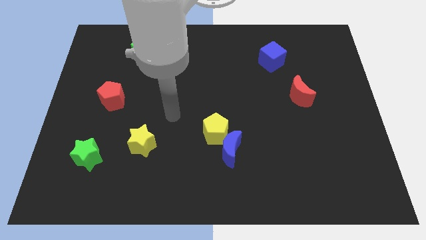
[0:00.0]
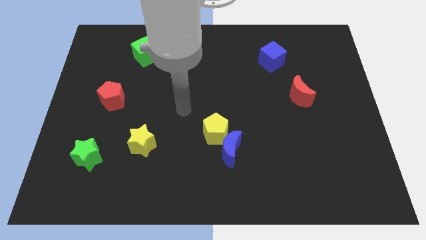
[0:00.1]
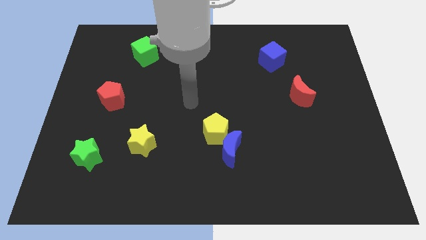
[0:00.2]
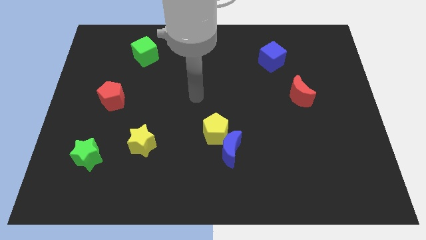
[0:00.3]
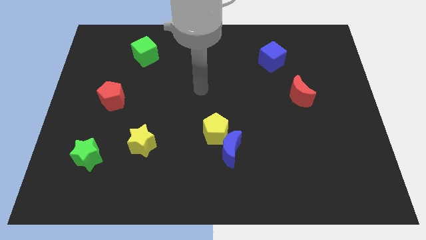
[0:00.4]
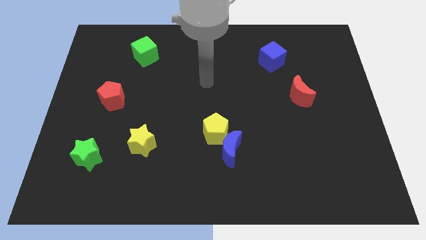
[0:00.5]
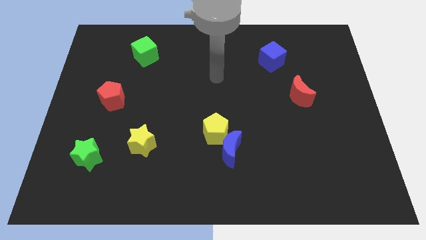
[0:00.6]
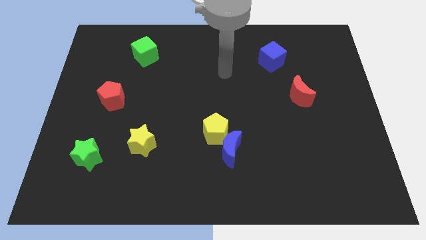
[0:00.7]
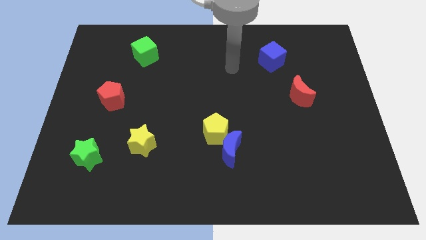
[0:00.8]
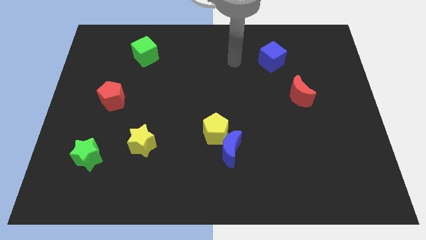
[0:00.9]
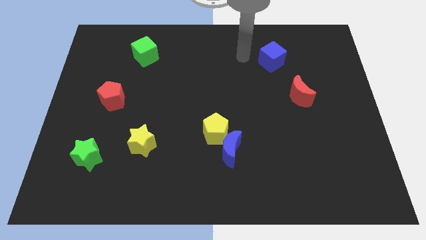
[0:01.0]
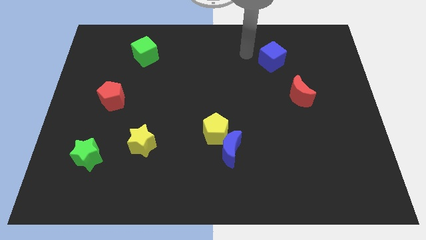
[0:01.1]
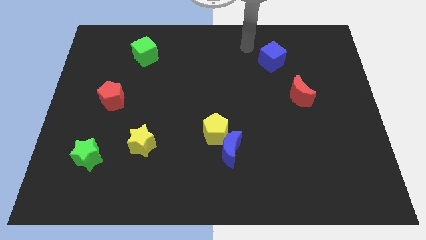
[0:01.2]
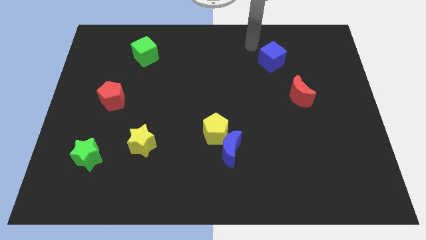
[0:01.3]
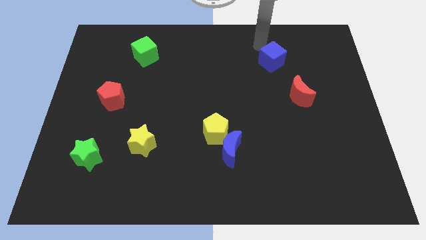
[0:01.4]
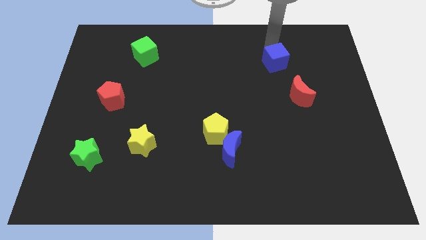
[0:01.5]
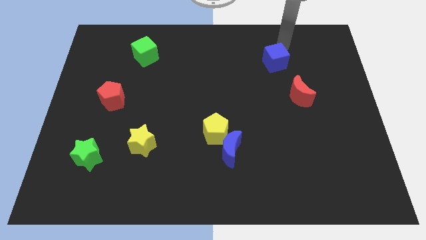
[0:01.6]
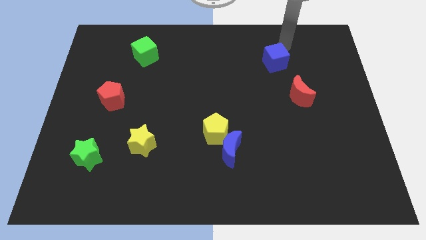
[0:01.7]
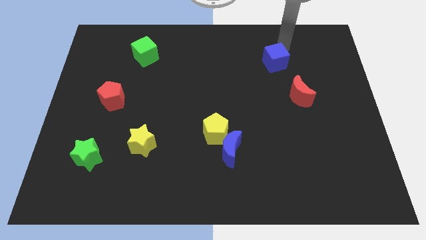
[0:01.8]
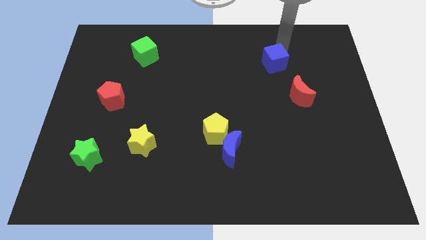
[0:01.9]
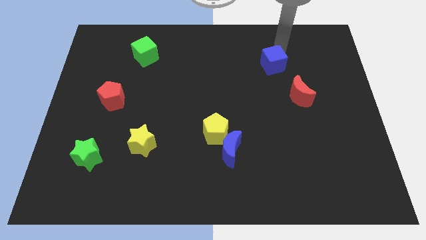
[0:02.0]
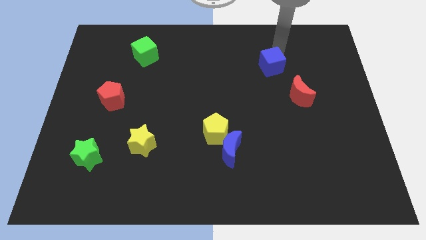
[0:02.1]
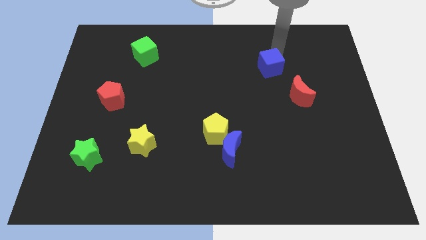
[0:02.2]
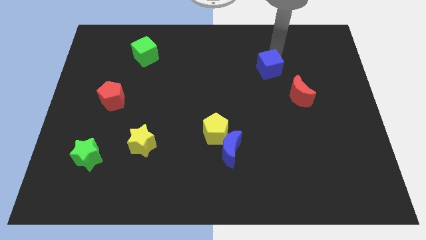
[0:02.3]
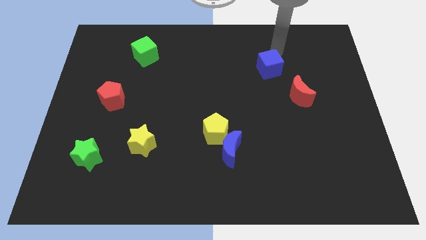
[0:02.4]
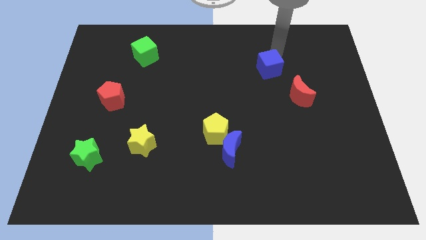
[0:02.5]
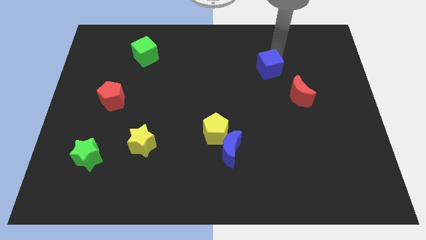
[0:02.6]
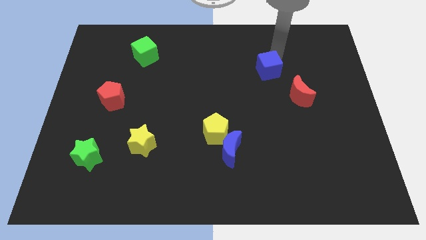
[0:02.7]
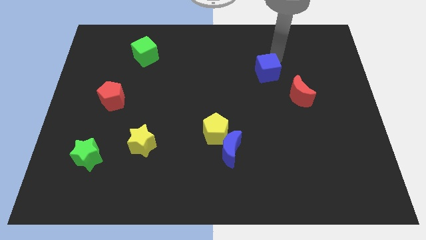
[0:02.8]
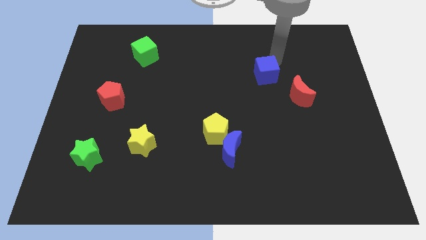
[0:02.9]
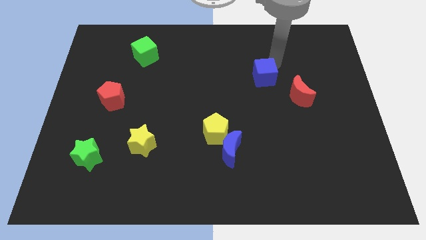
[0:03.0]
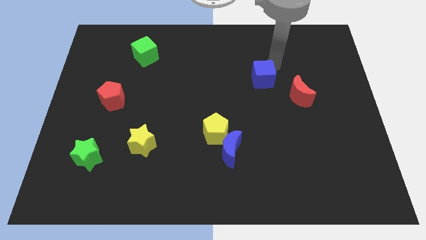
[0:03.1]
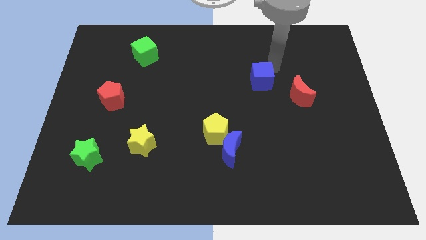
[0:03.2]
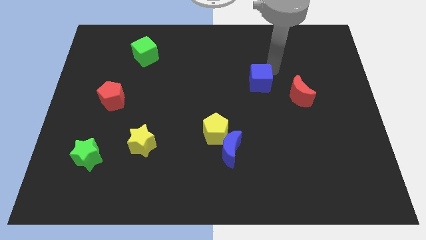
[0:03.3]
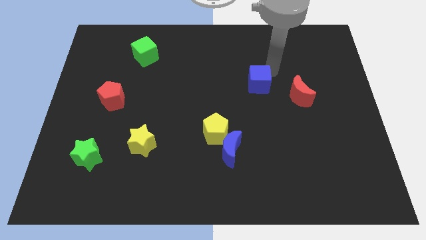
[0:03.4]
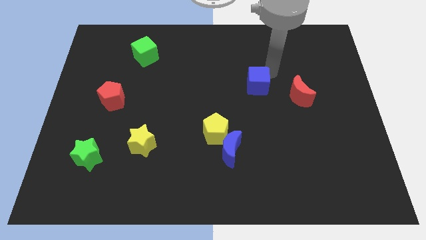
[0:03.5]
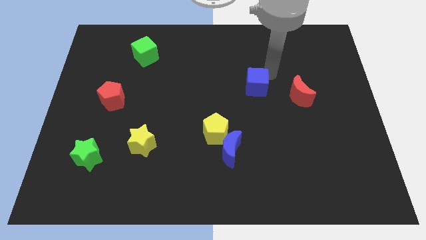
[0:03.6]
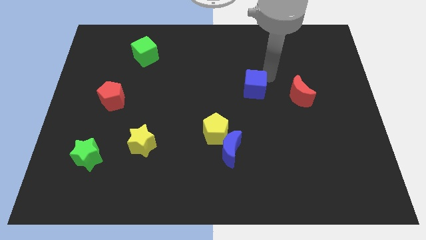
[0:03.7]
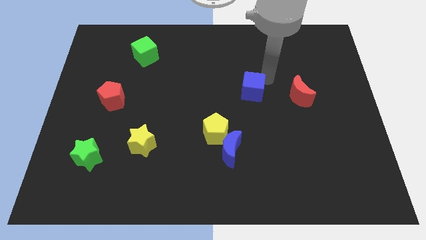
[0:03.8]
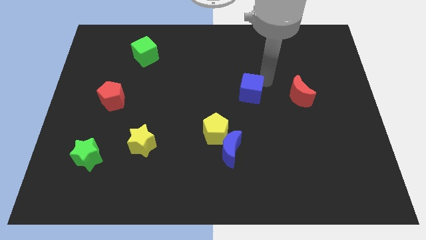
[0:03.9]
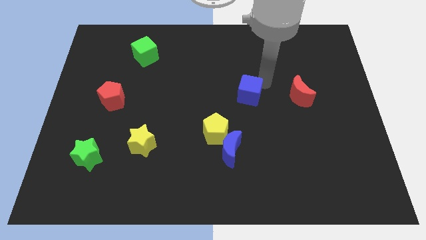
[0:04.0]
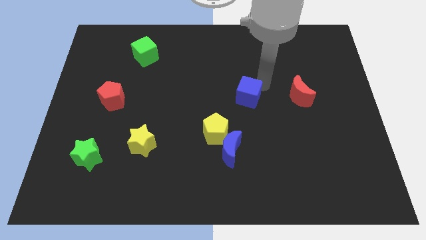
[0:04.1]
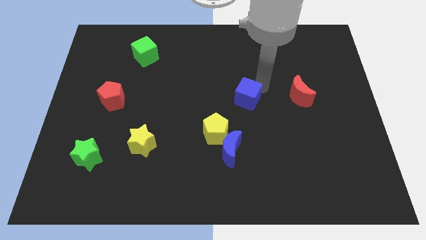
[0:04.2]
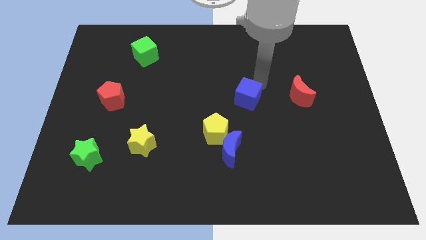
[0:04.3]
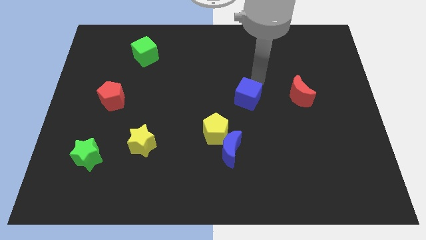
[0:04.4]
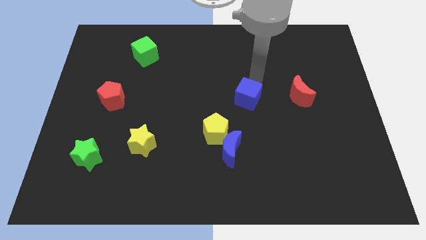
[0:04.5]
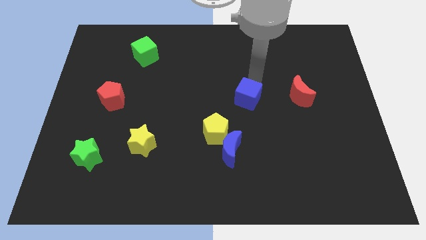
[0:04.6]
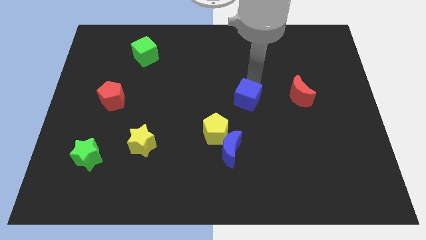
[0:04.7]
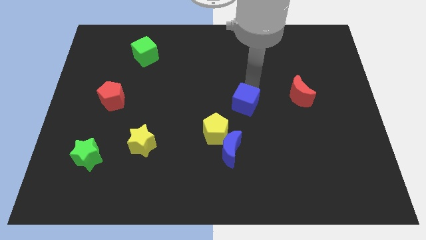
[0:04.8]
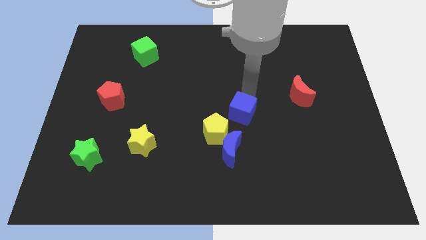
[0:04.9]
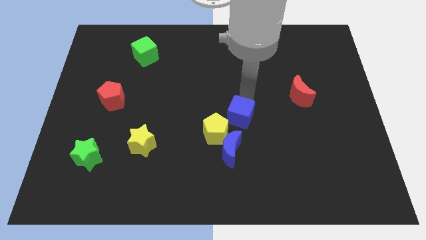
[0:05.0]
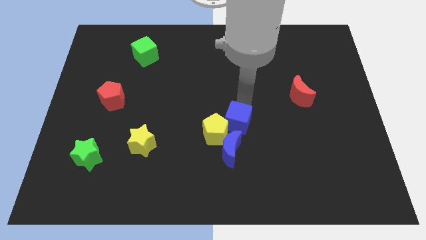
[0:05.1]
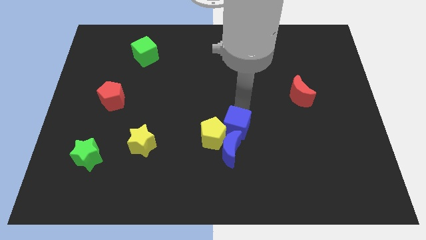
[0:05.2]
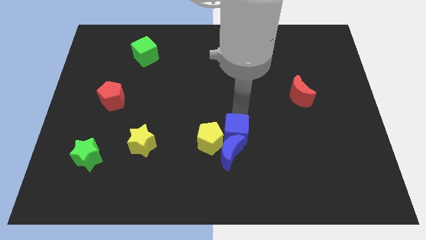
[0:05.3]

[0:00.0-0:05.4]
move the blue cube towards the blue moon

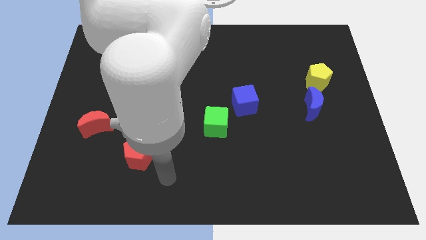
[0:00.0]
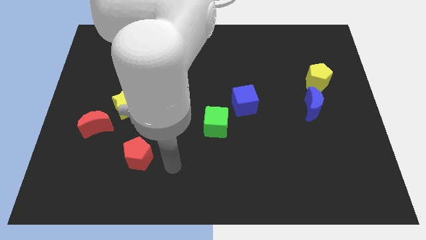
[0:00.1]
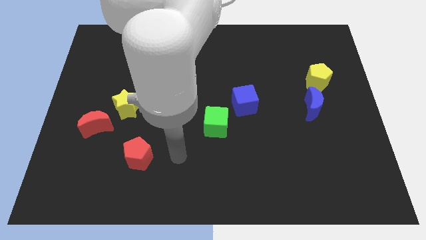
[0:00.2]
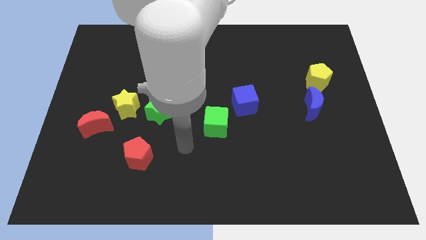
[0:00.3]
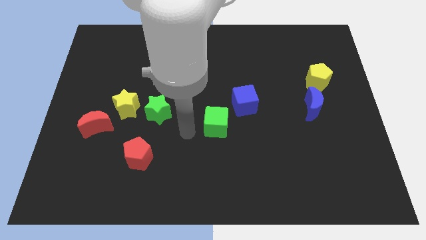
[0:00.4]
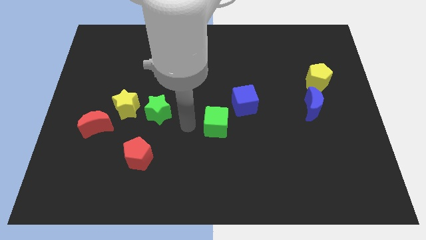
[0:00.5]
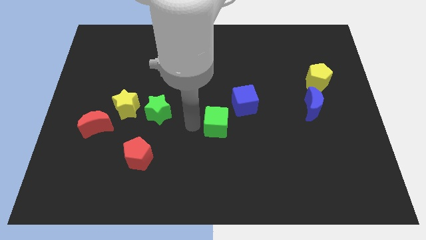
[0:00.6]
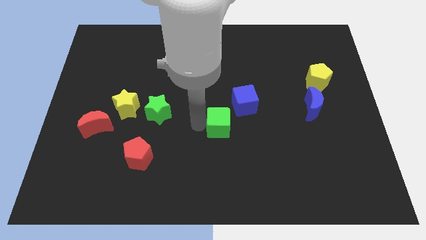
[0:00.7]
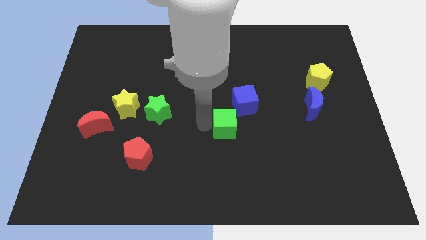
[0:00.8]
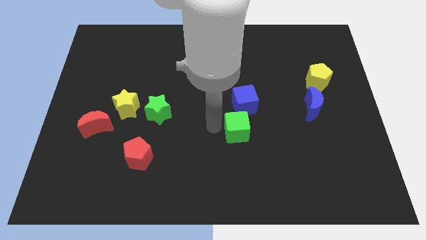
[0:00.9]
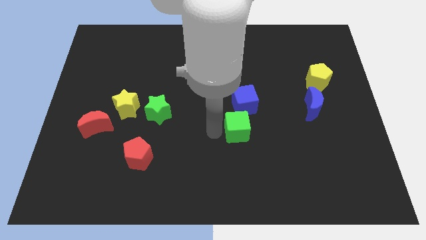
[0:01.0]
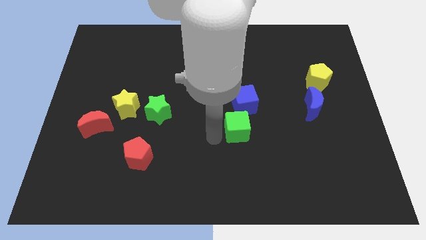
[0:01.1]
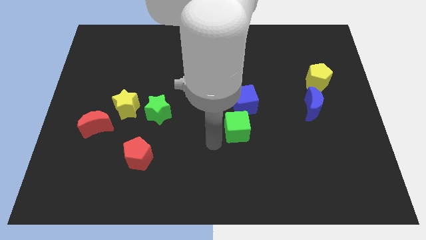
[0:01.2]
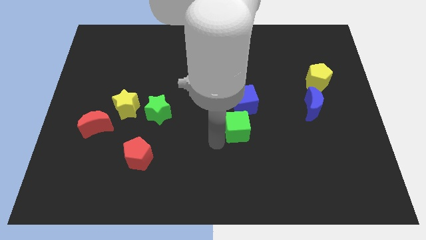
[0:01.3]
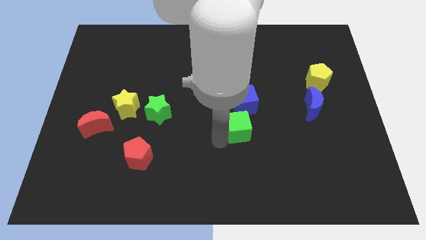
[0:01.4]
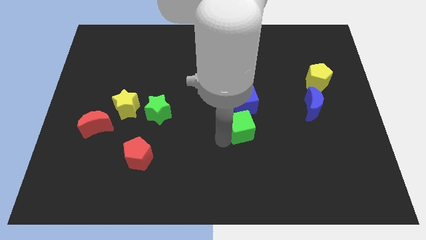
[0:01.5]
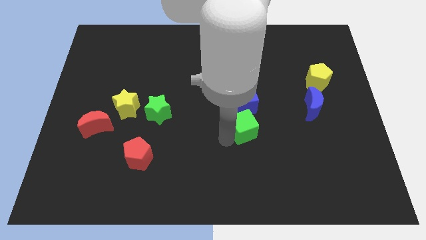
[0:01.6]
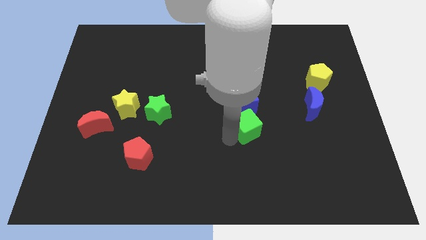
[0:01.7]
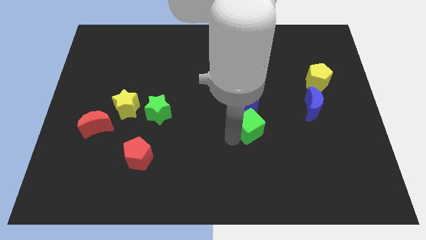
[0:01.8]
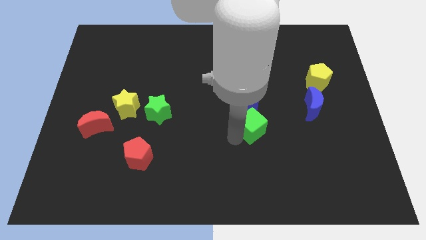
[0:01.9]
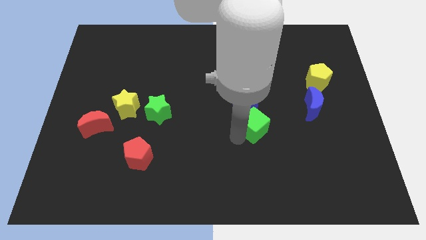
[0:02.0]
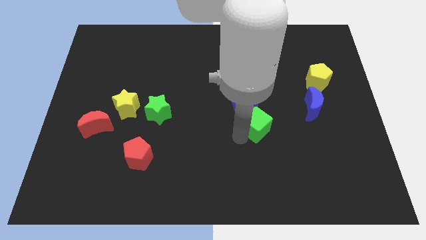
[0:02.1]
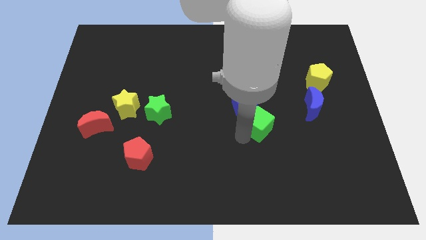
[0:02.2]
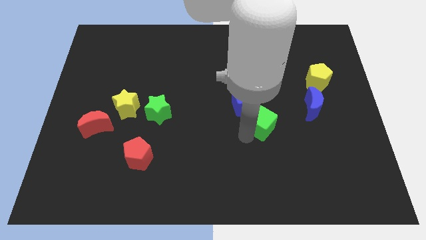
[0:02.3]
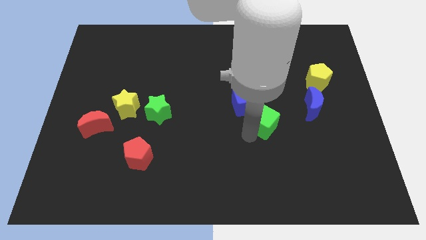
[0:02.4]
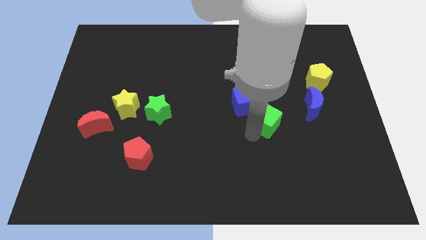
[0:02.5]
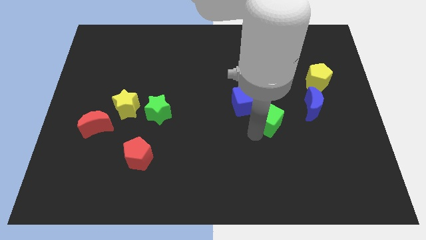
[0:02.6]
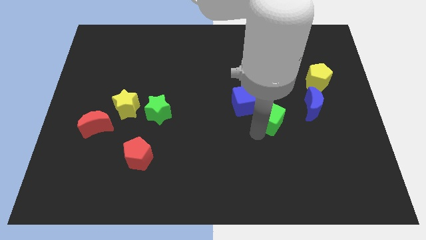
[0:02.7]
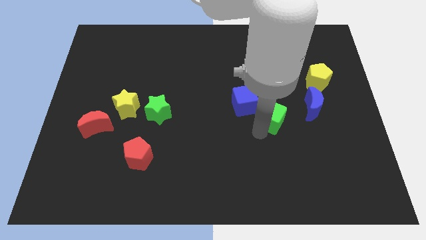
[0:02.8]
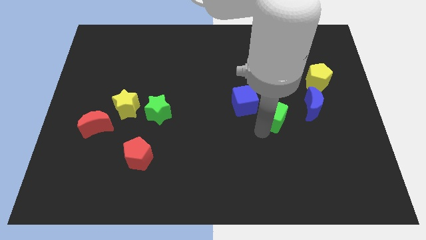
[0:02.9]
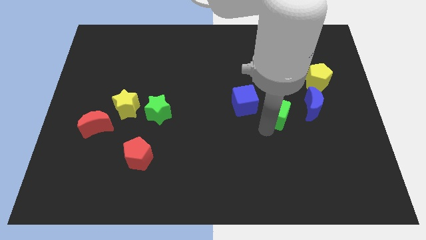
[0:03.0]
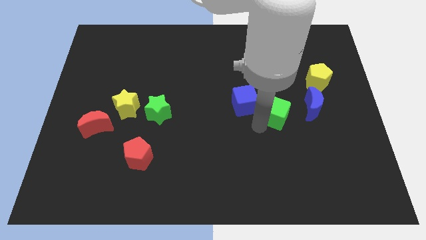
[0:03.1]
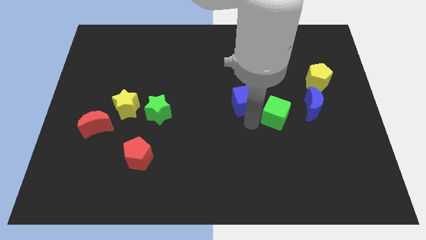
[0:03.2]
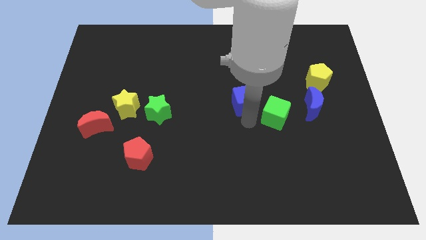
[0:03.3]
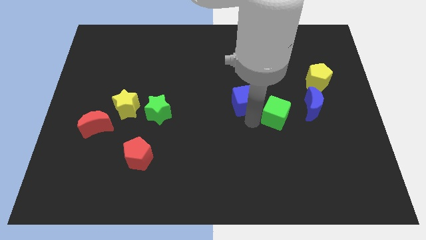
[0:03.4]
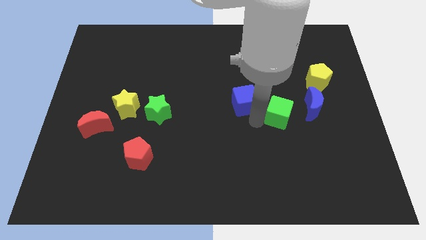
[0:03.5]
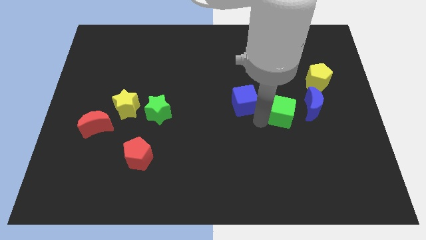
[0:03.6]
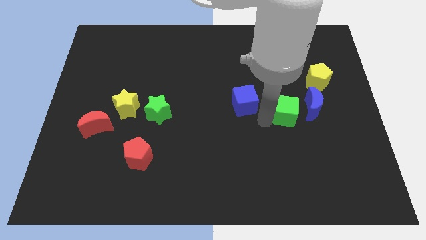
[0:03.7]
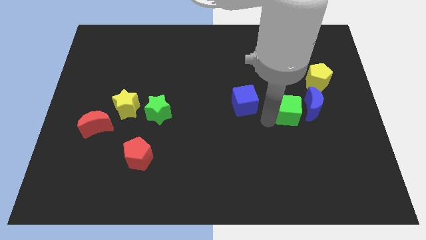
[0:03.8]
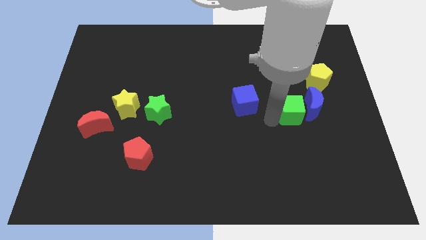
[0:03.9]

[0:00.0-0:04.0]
put the green cube next to the blue moon
